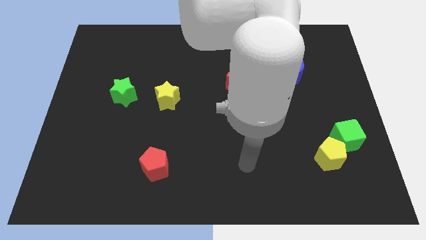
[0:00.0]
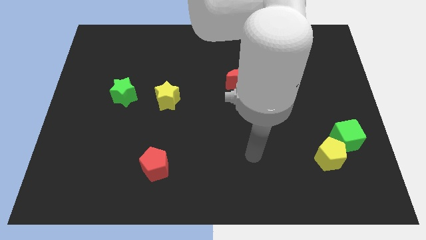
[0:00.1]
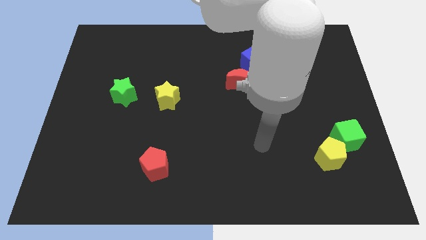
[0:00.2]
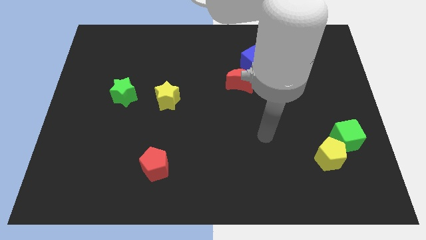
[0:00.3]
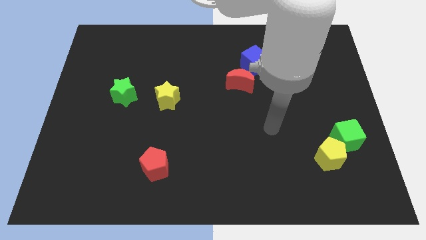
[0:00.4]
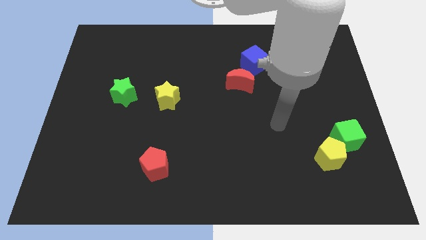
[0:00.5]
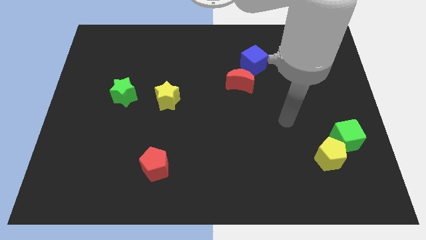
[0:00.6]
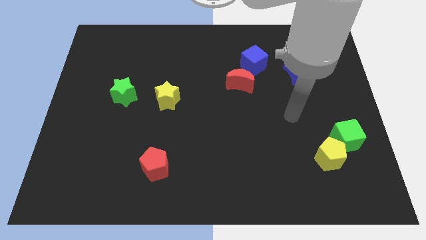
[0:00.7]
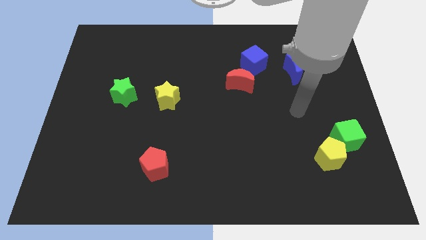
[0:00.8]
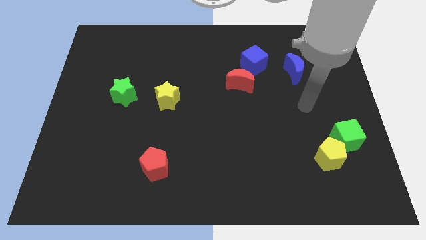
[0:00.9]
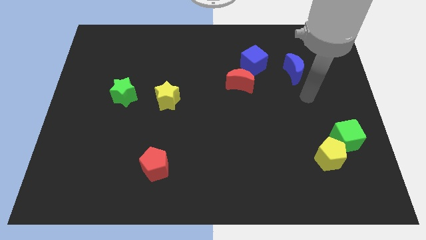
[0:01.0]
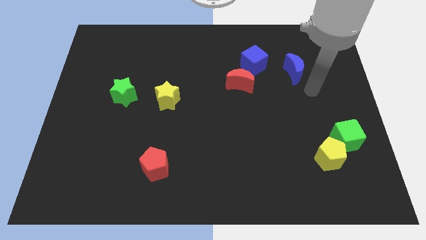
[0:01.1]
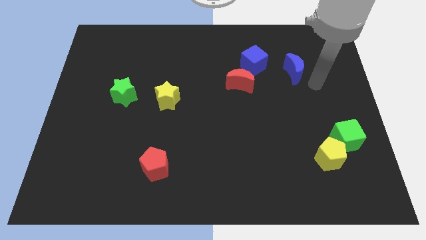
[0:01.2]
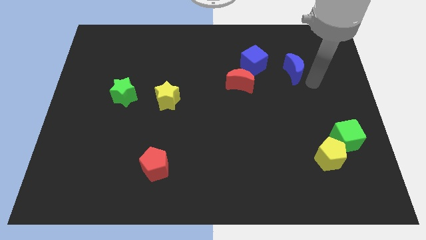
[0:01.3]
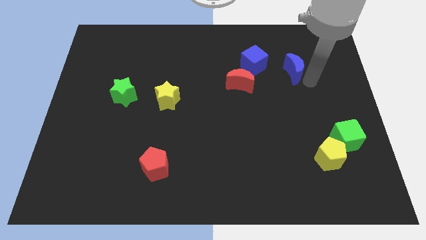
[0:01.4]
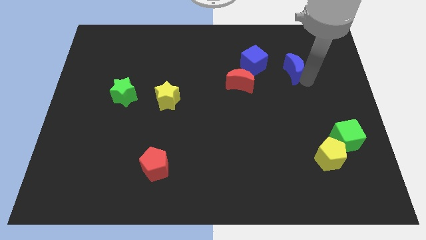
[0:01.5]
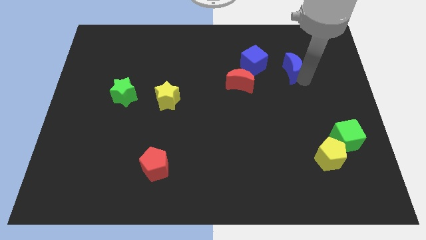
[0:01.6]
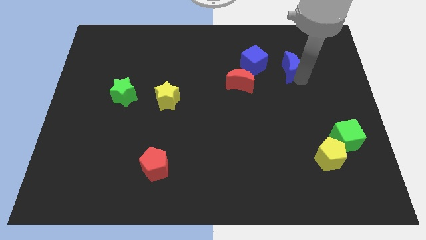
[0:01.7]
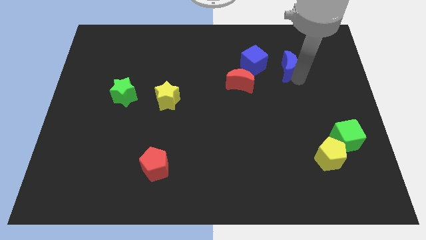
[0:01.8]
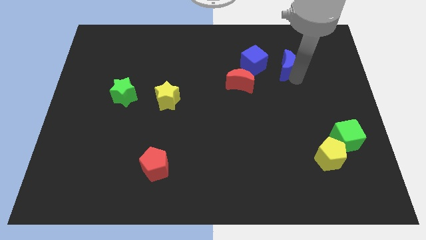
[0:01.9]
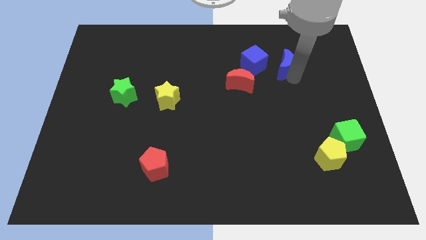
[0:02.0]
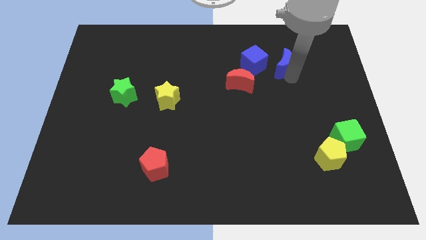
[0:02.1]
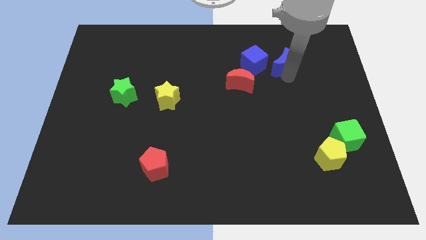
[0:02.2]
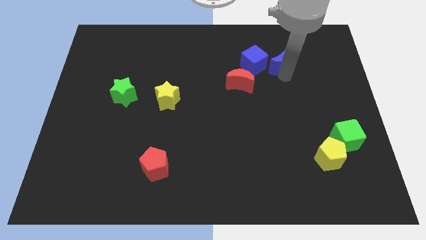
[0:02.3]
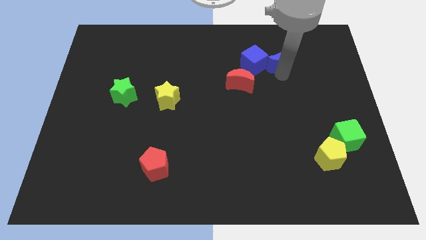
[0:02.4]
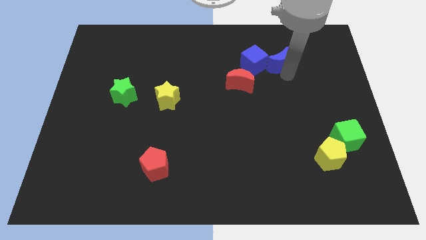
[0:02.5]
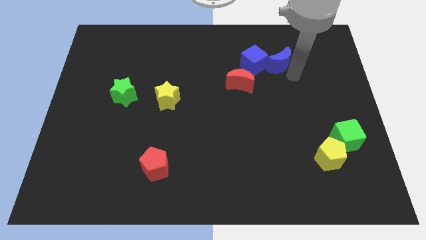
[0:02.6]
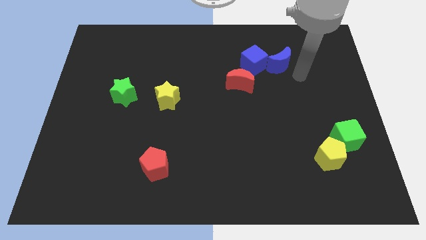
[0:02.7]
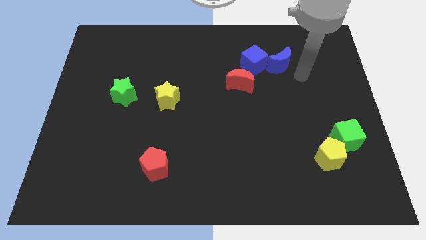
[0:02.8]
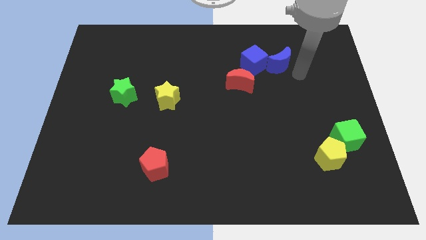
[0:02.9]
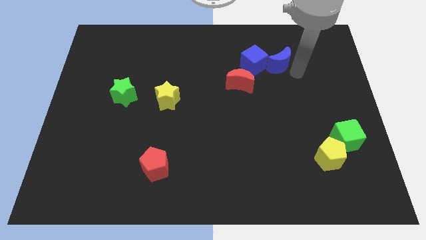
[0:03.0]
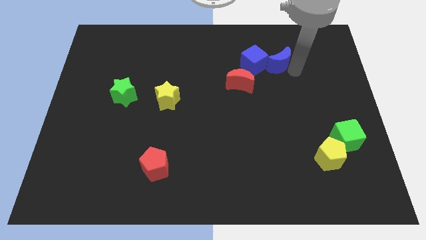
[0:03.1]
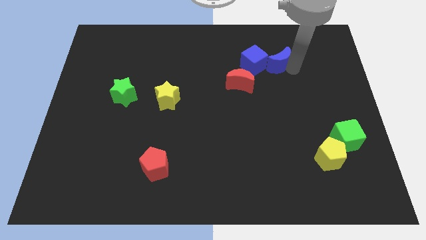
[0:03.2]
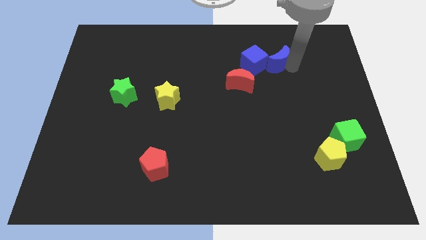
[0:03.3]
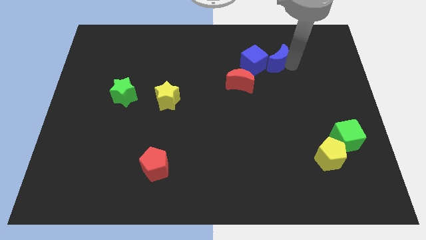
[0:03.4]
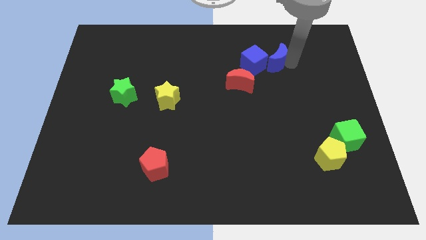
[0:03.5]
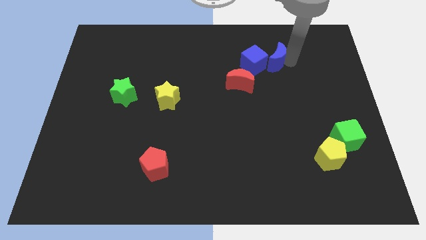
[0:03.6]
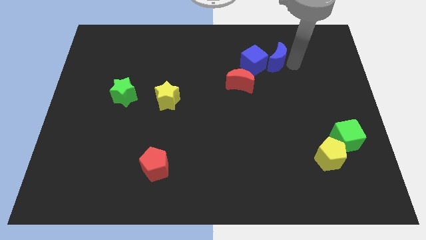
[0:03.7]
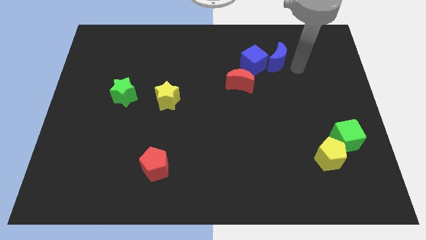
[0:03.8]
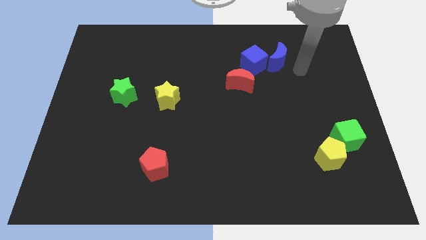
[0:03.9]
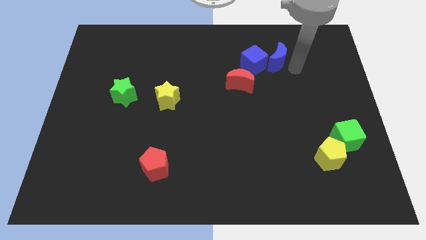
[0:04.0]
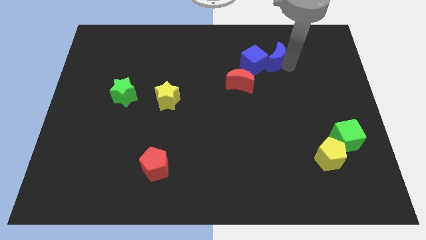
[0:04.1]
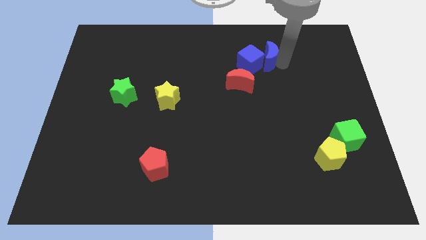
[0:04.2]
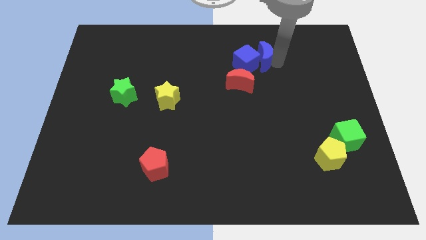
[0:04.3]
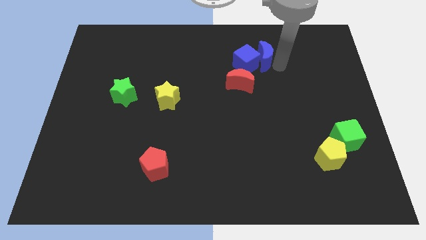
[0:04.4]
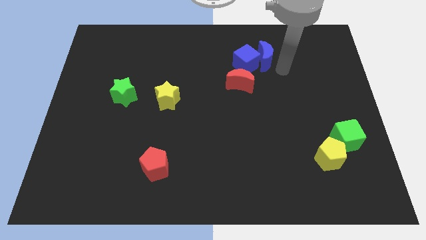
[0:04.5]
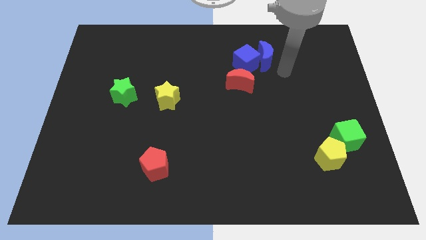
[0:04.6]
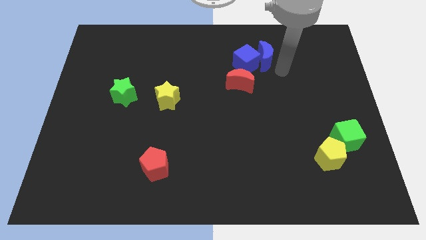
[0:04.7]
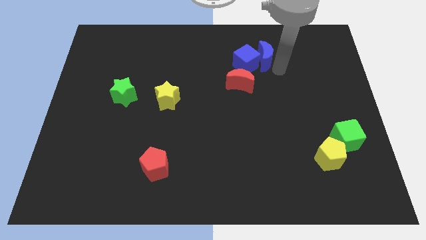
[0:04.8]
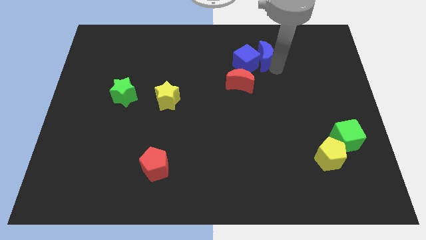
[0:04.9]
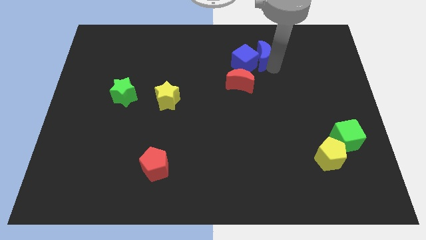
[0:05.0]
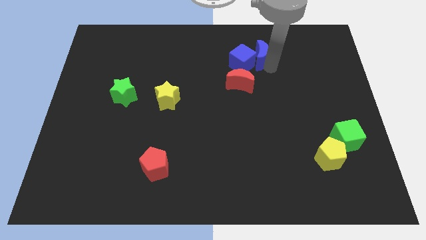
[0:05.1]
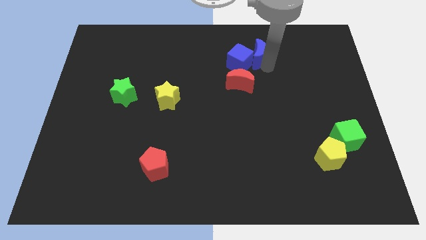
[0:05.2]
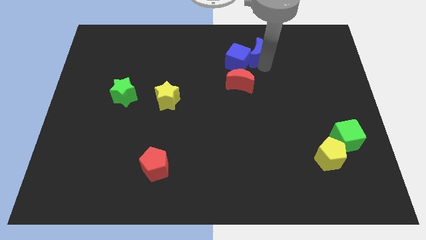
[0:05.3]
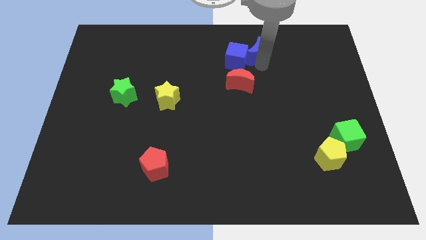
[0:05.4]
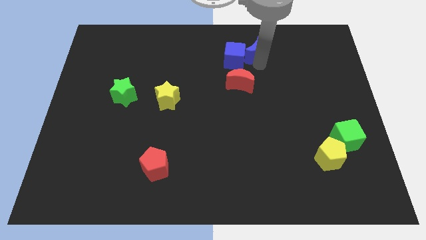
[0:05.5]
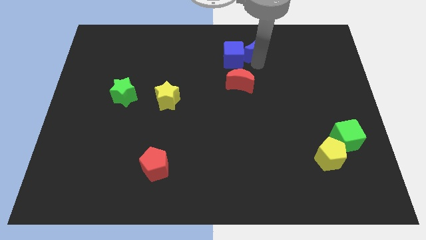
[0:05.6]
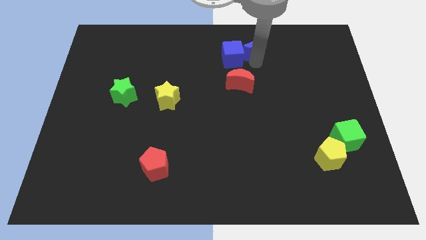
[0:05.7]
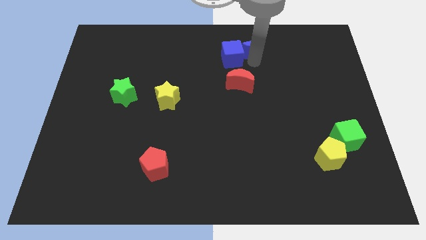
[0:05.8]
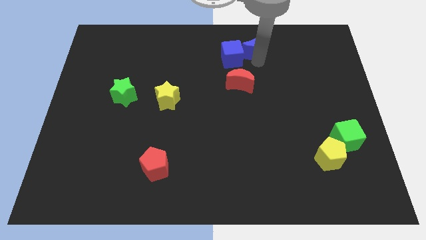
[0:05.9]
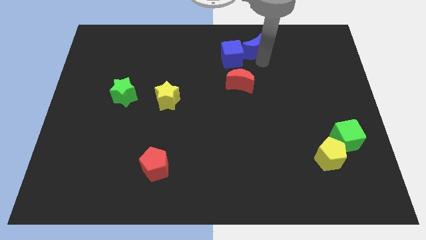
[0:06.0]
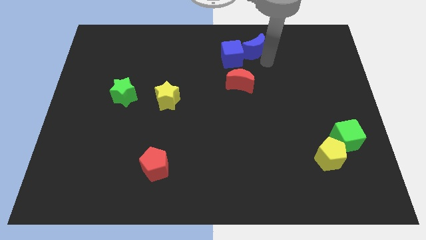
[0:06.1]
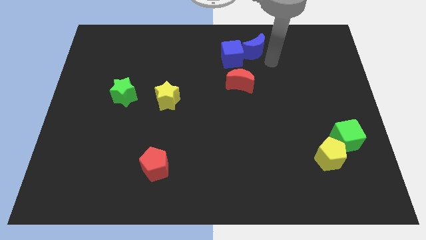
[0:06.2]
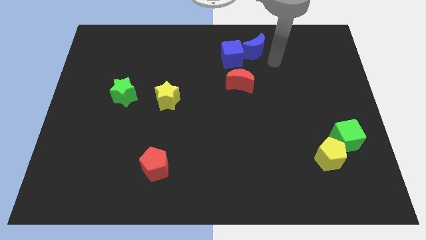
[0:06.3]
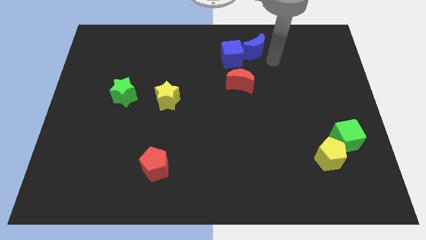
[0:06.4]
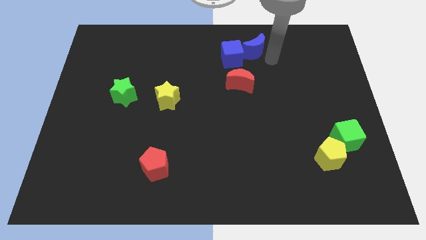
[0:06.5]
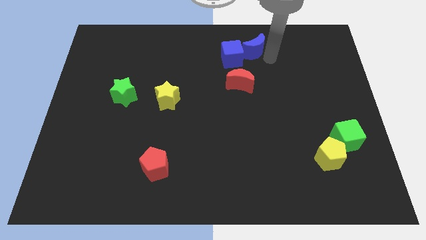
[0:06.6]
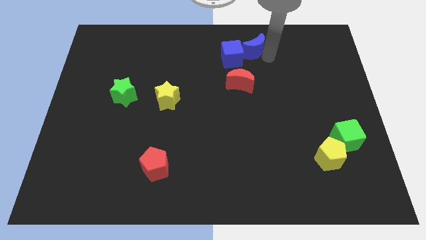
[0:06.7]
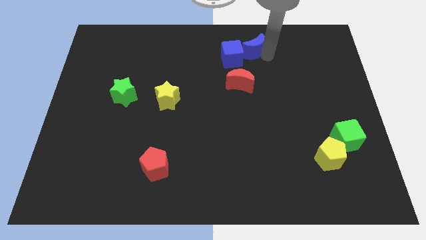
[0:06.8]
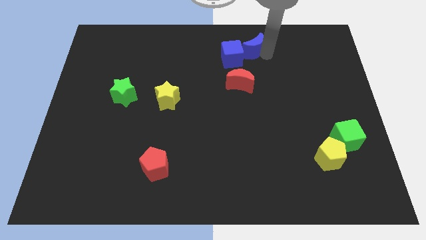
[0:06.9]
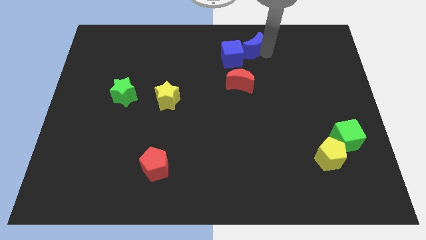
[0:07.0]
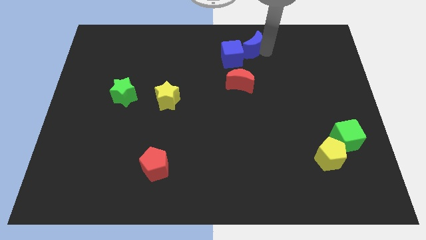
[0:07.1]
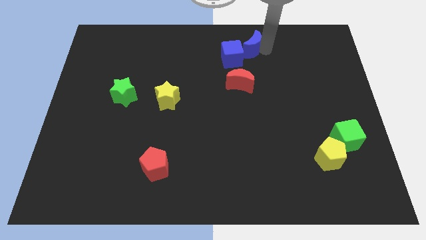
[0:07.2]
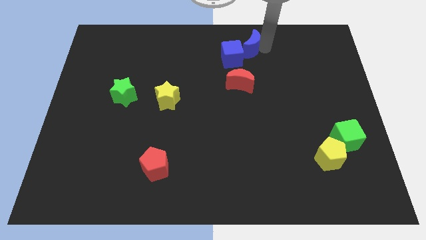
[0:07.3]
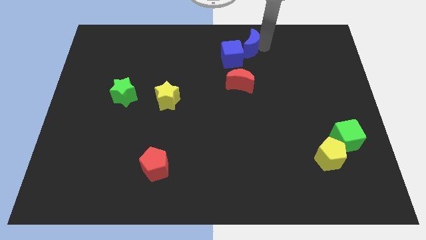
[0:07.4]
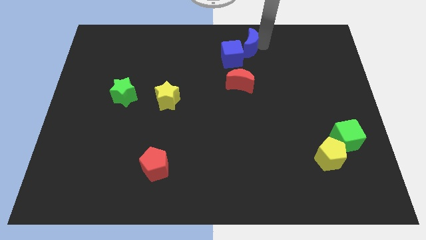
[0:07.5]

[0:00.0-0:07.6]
slide the blue moon to the top side

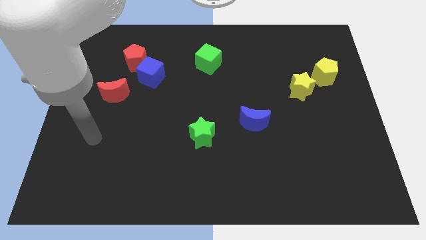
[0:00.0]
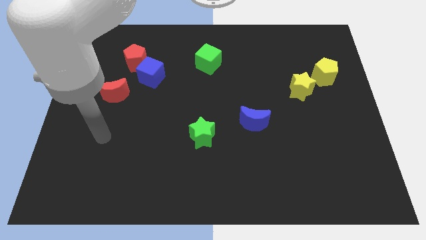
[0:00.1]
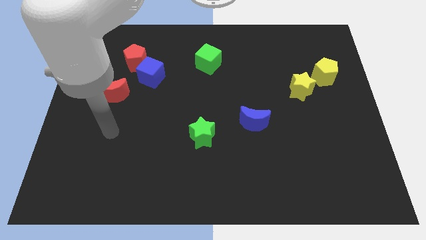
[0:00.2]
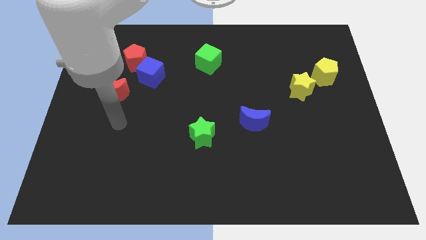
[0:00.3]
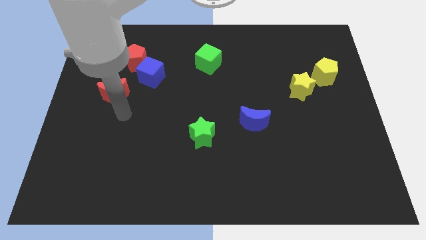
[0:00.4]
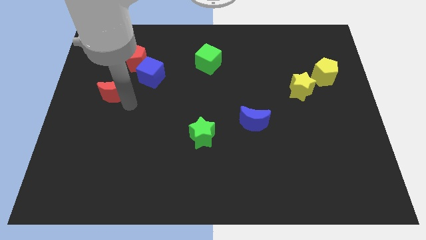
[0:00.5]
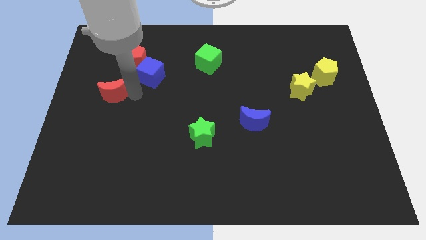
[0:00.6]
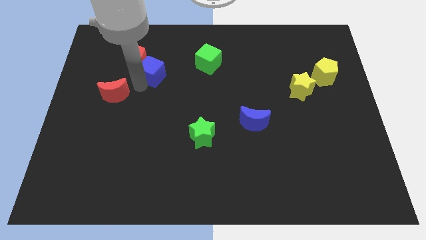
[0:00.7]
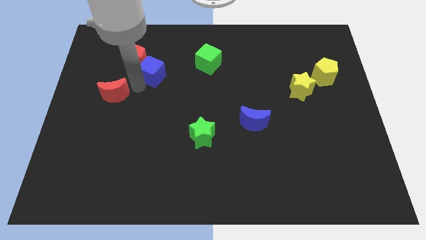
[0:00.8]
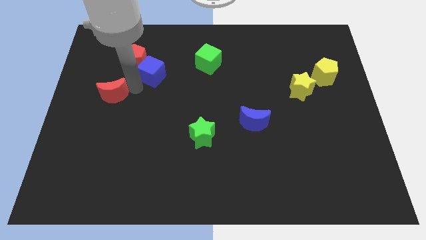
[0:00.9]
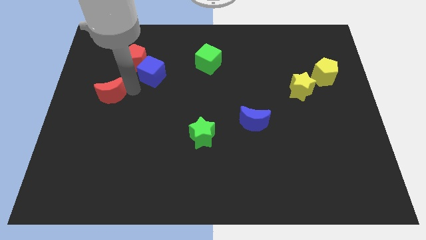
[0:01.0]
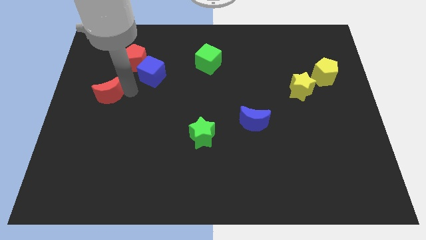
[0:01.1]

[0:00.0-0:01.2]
push the red moon to the center left
